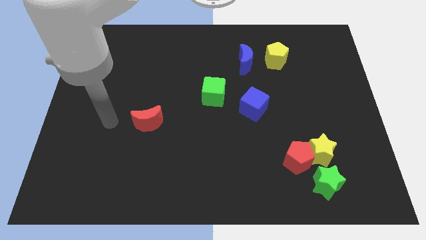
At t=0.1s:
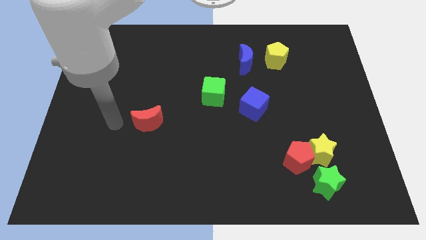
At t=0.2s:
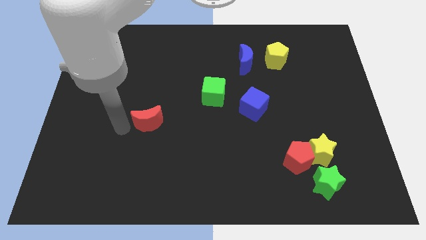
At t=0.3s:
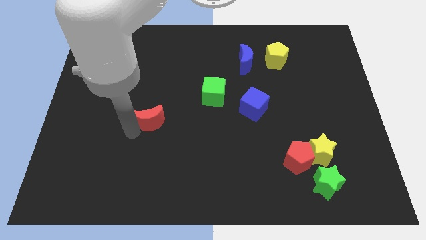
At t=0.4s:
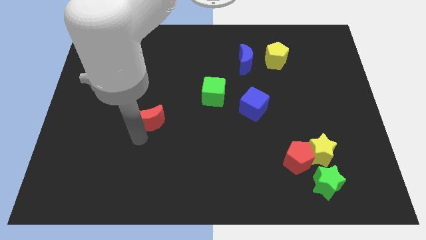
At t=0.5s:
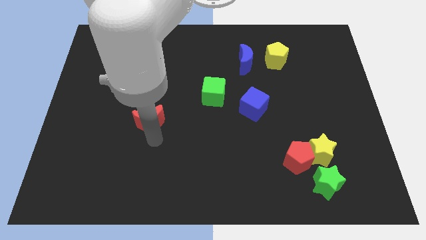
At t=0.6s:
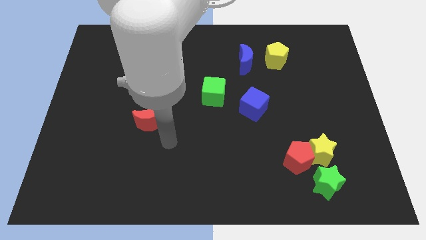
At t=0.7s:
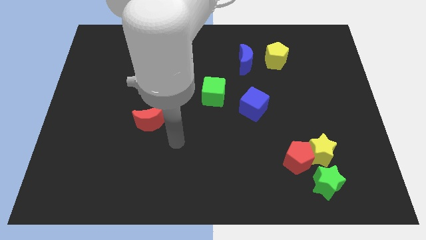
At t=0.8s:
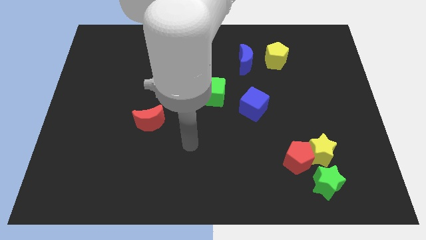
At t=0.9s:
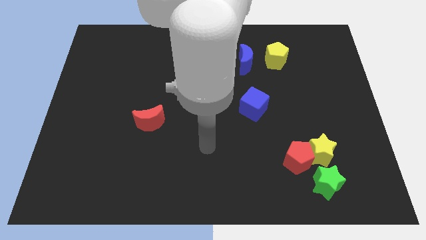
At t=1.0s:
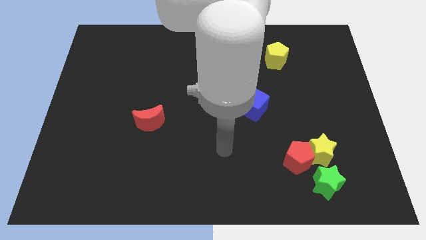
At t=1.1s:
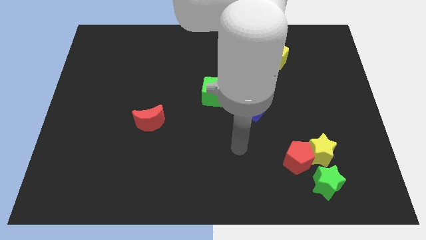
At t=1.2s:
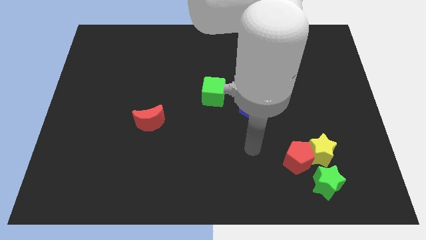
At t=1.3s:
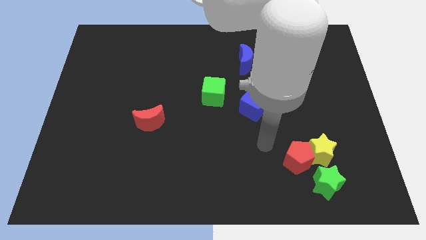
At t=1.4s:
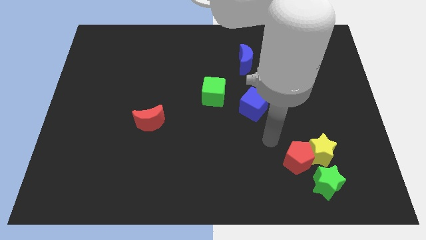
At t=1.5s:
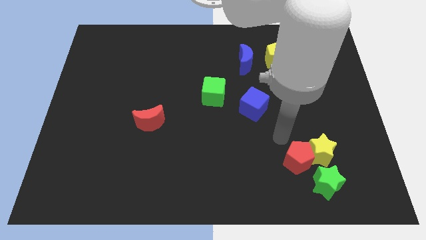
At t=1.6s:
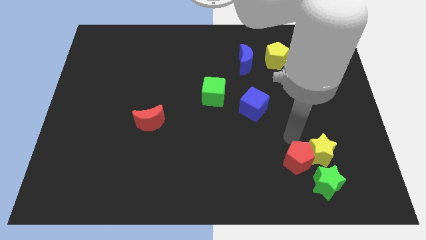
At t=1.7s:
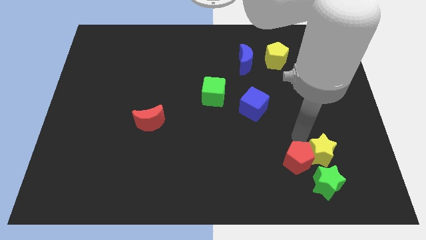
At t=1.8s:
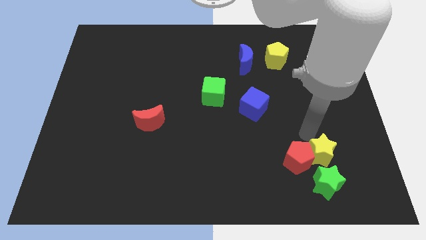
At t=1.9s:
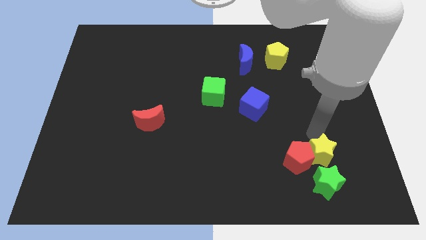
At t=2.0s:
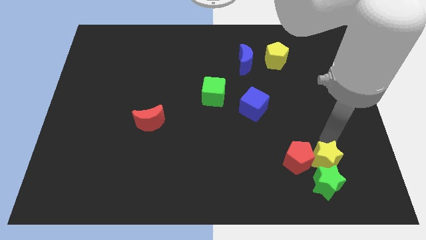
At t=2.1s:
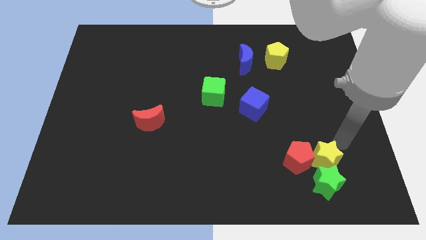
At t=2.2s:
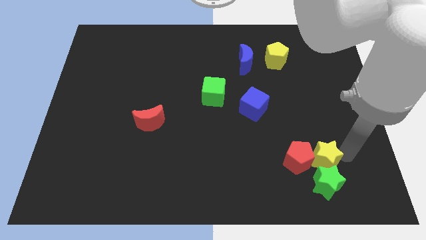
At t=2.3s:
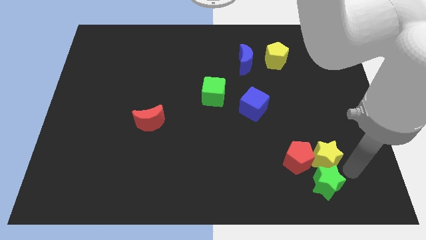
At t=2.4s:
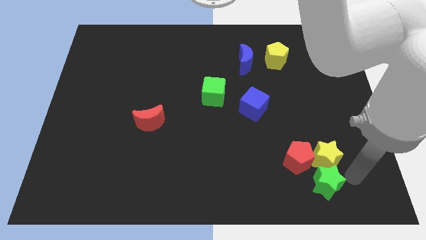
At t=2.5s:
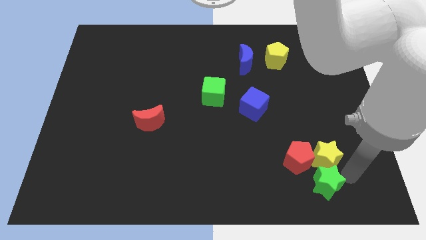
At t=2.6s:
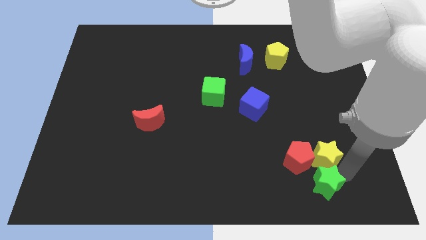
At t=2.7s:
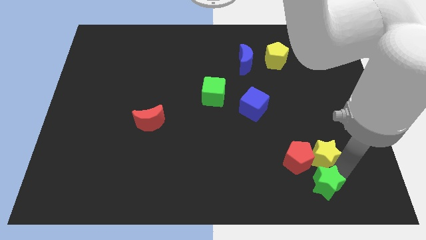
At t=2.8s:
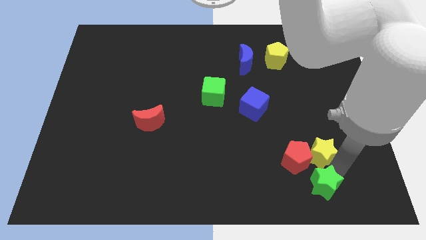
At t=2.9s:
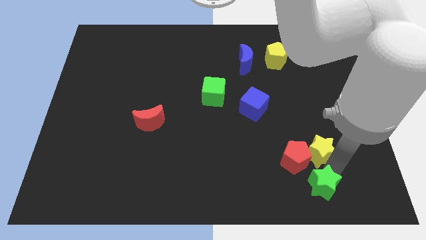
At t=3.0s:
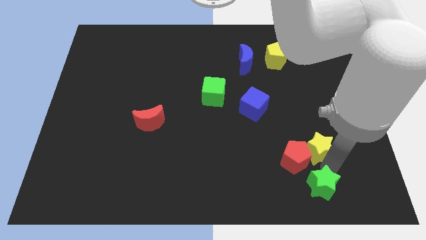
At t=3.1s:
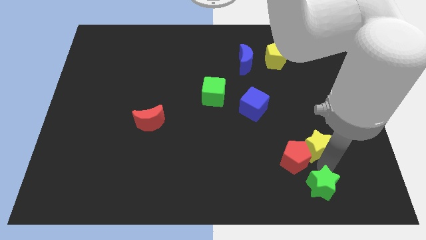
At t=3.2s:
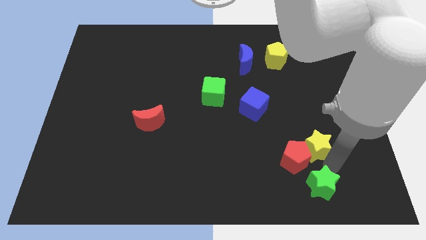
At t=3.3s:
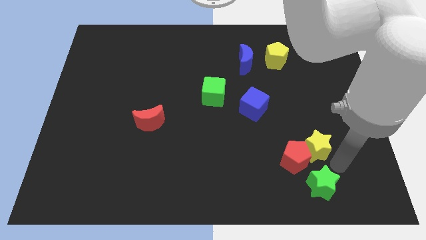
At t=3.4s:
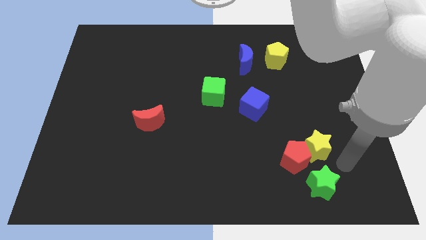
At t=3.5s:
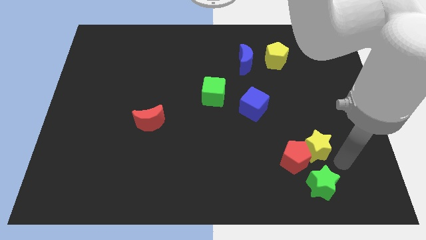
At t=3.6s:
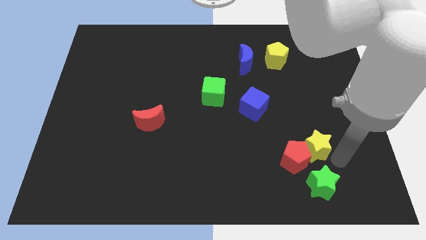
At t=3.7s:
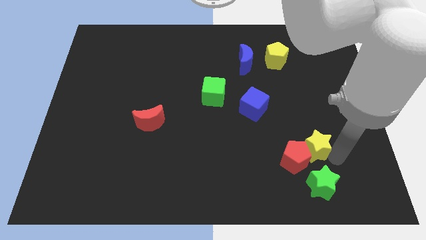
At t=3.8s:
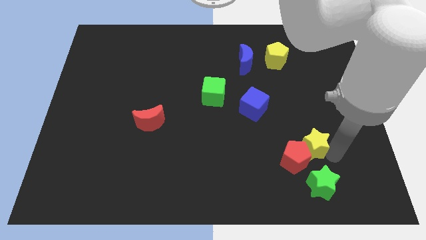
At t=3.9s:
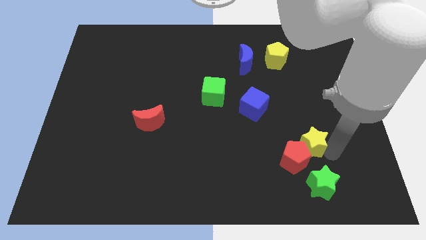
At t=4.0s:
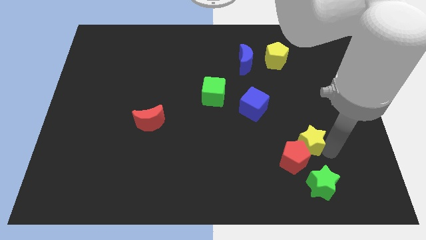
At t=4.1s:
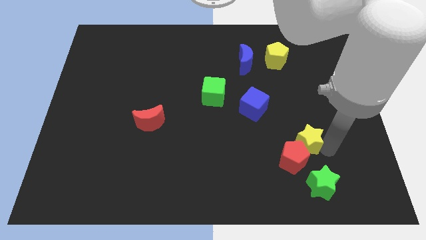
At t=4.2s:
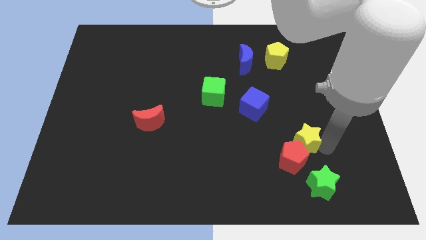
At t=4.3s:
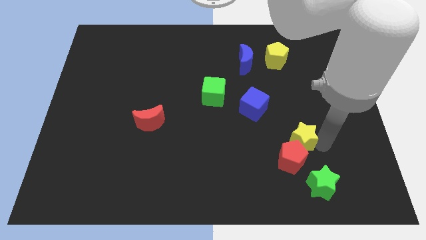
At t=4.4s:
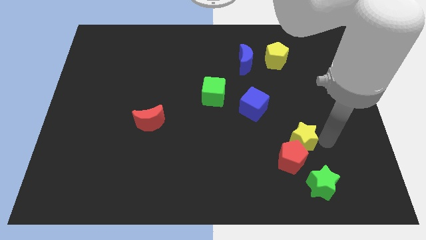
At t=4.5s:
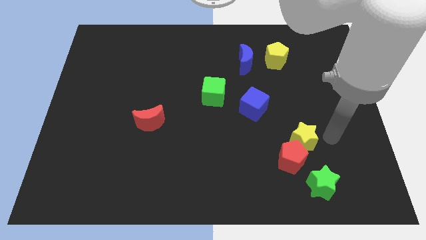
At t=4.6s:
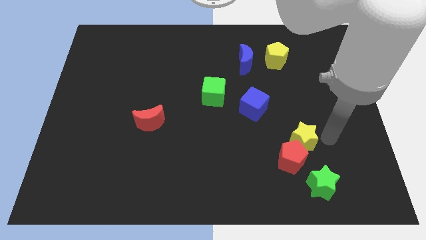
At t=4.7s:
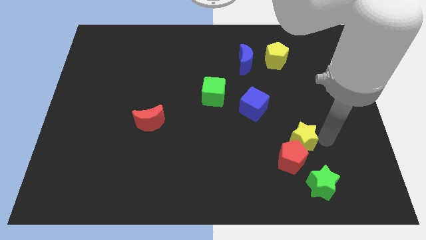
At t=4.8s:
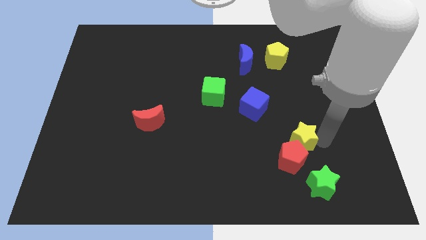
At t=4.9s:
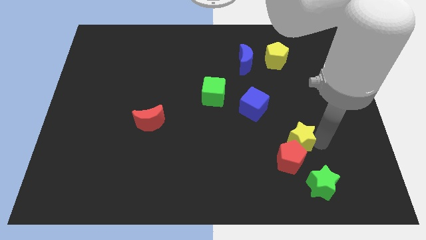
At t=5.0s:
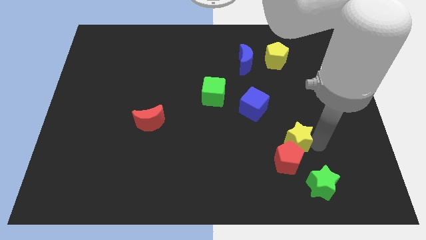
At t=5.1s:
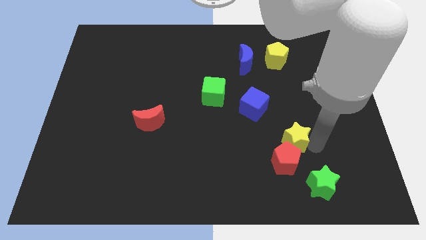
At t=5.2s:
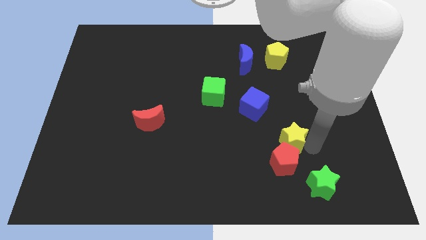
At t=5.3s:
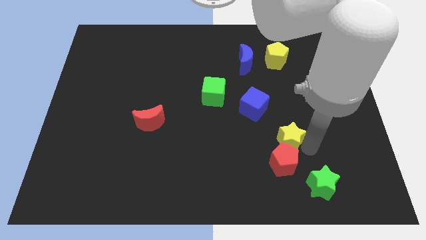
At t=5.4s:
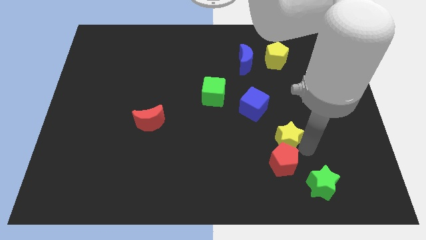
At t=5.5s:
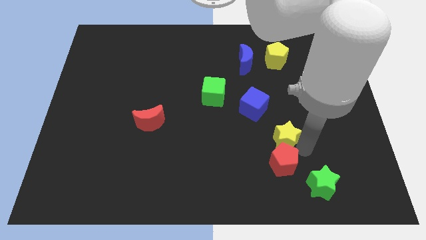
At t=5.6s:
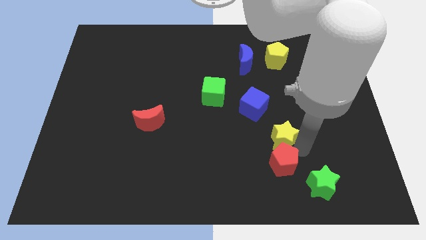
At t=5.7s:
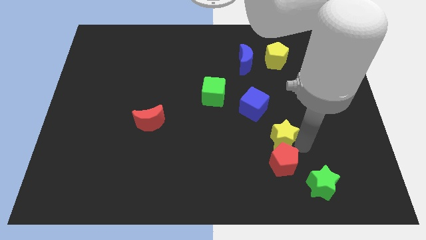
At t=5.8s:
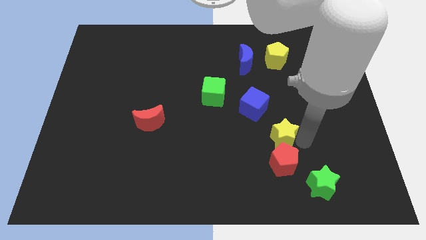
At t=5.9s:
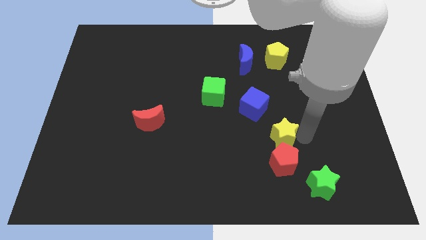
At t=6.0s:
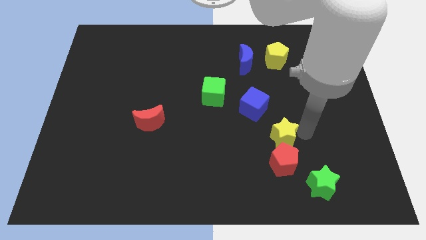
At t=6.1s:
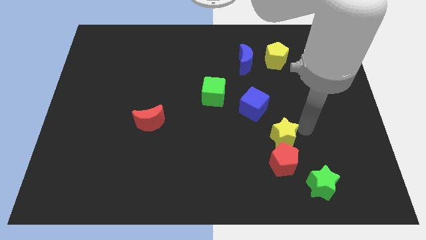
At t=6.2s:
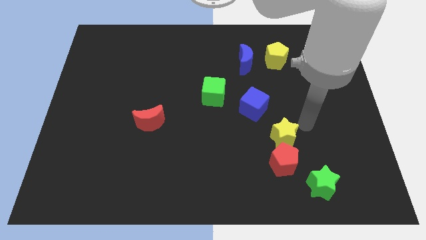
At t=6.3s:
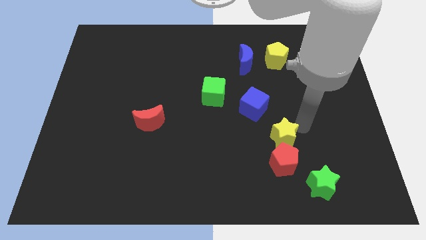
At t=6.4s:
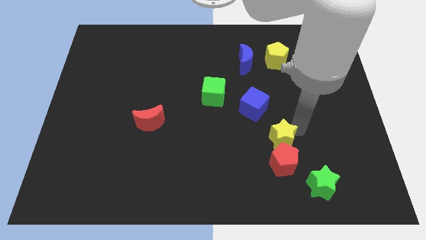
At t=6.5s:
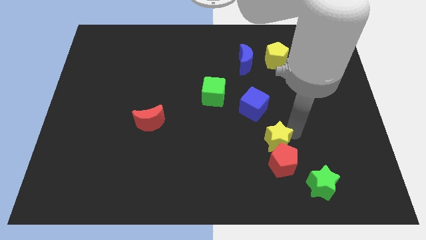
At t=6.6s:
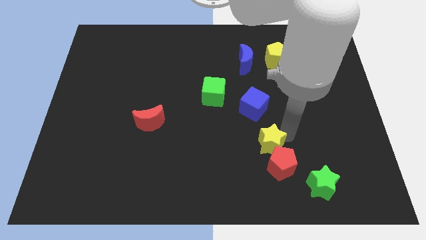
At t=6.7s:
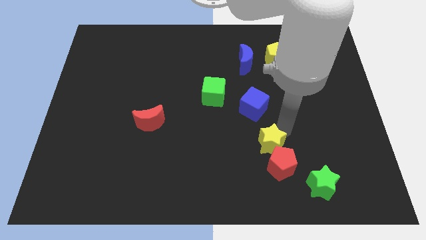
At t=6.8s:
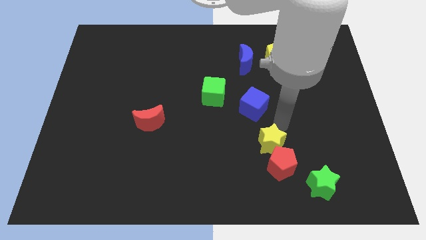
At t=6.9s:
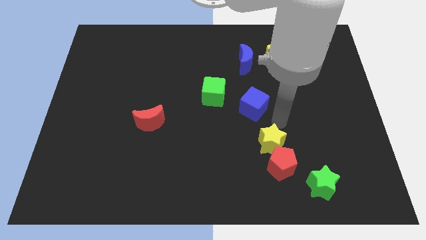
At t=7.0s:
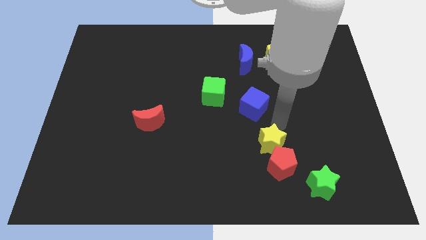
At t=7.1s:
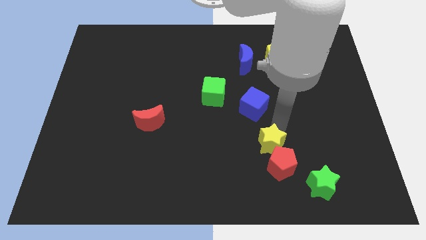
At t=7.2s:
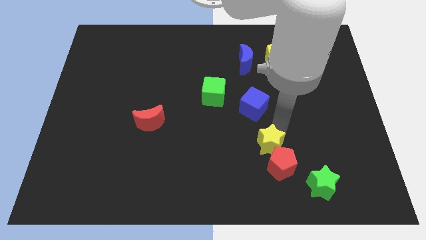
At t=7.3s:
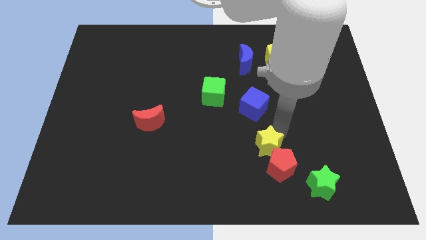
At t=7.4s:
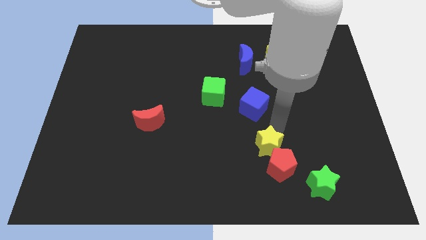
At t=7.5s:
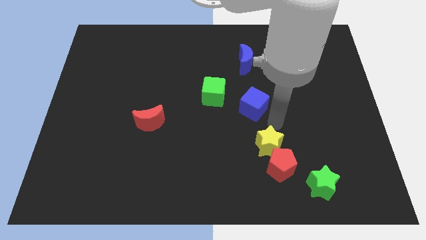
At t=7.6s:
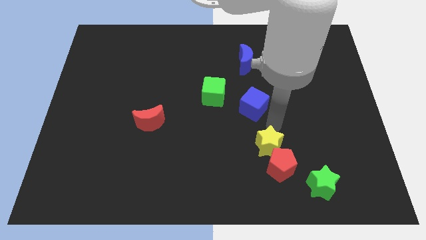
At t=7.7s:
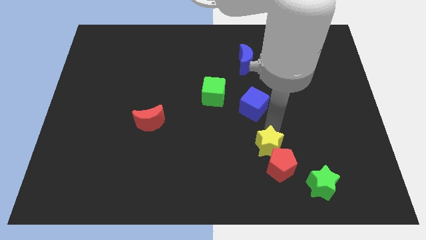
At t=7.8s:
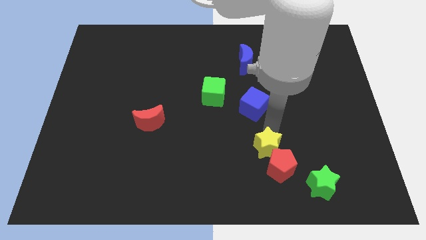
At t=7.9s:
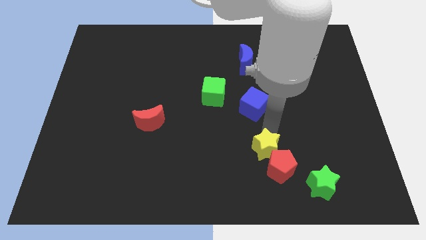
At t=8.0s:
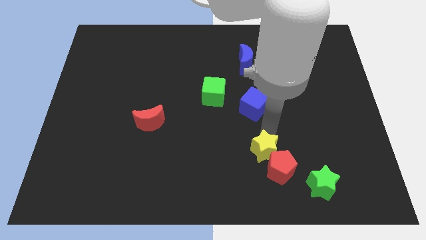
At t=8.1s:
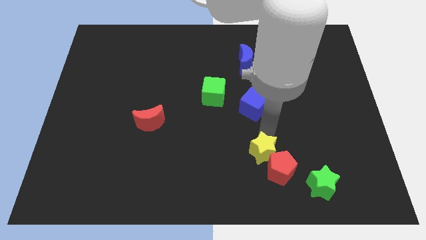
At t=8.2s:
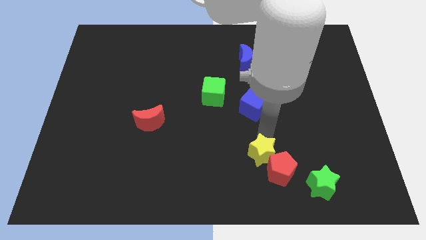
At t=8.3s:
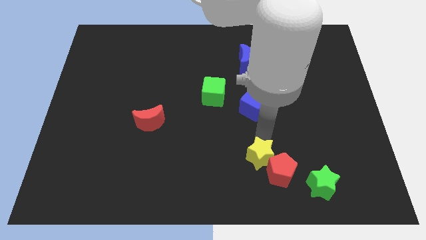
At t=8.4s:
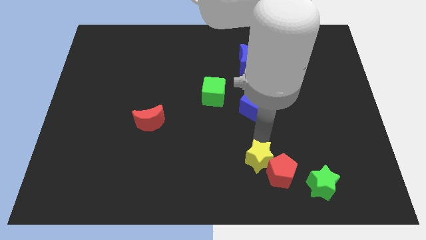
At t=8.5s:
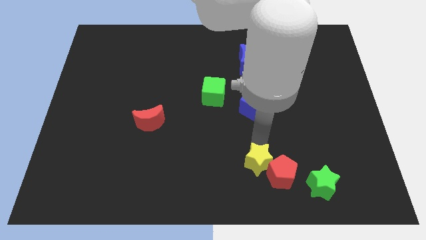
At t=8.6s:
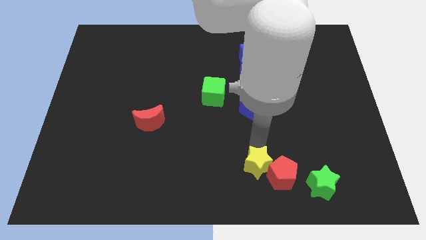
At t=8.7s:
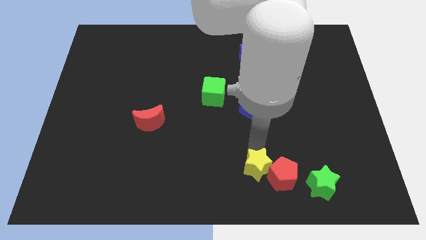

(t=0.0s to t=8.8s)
put the yellow star to the bottom
